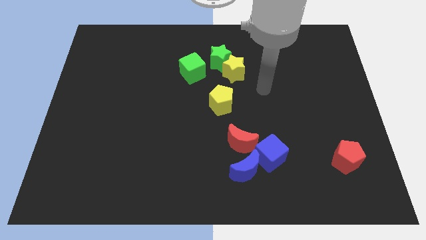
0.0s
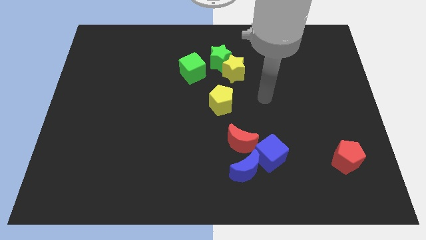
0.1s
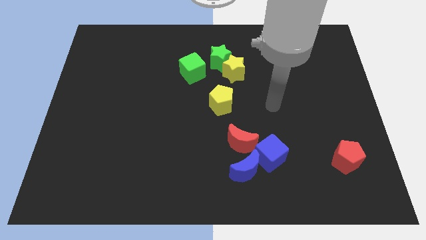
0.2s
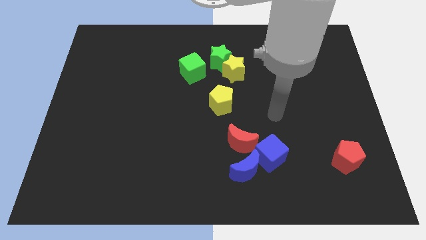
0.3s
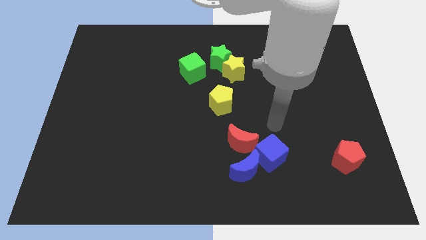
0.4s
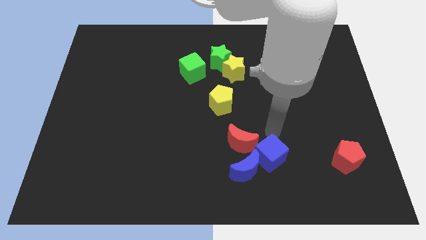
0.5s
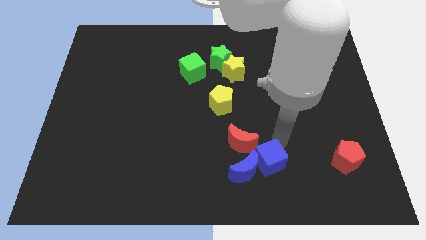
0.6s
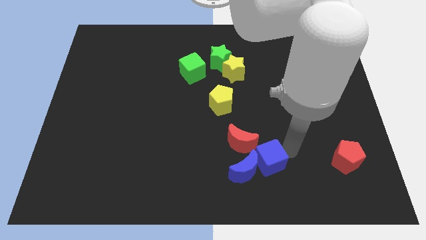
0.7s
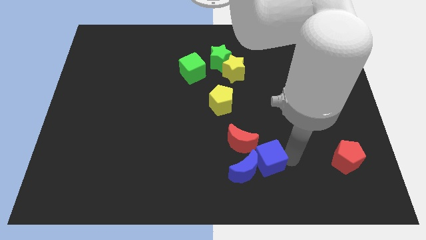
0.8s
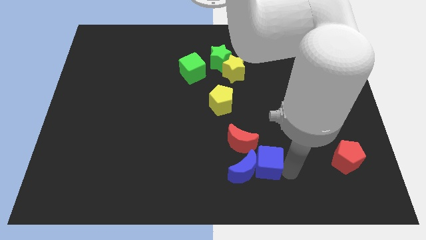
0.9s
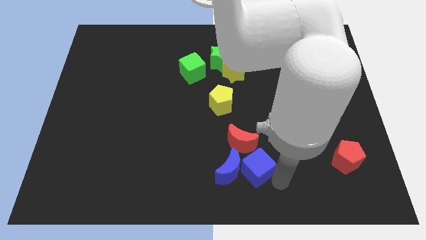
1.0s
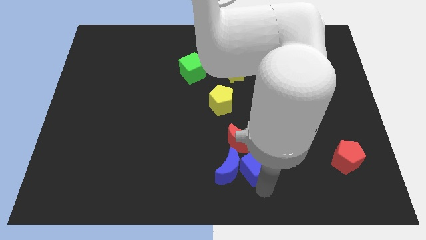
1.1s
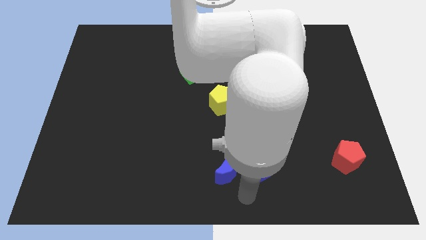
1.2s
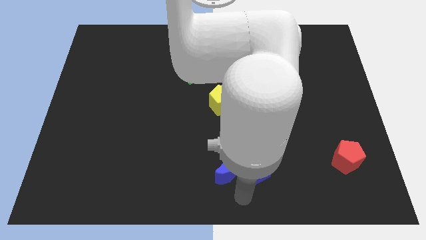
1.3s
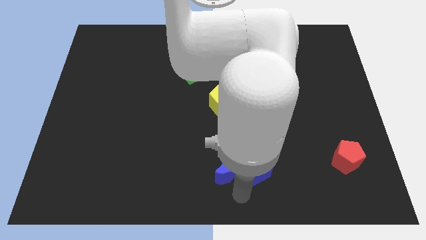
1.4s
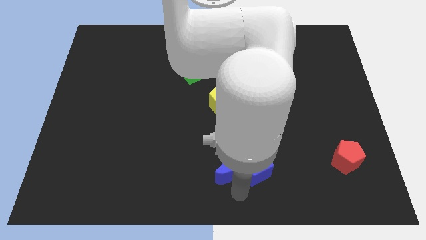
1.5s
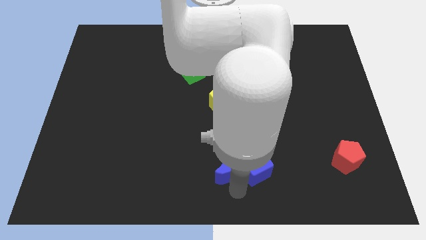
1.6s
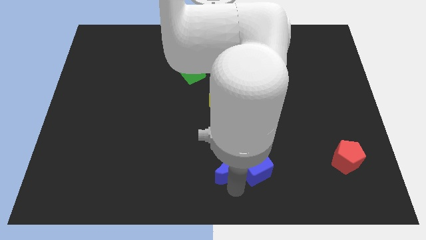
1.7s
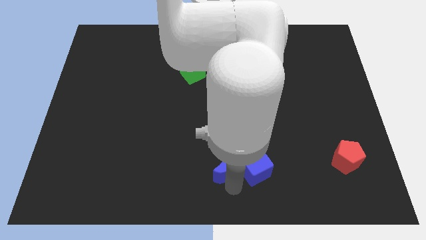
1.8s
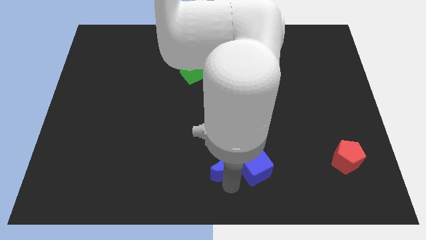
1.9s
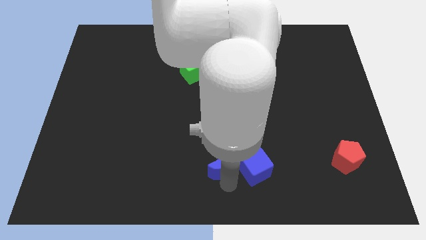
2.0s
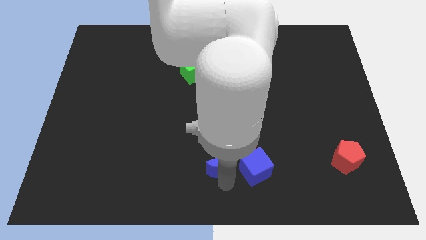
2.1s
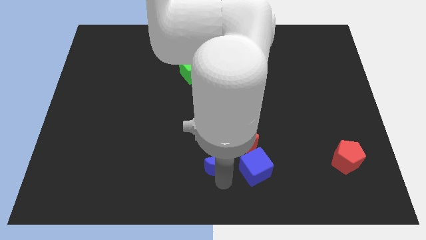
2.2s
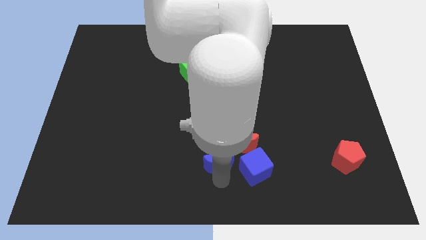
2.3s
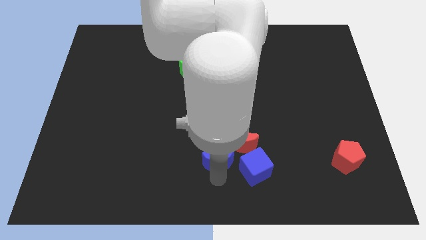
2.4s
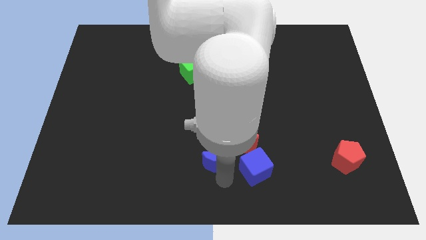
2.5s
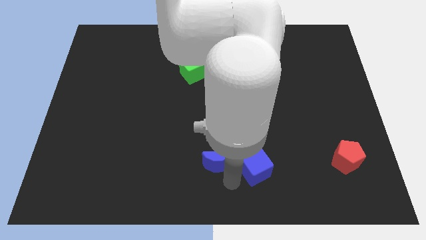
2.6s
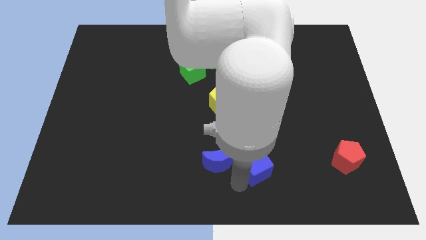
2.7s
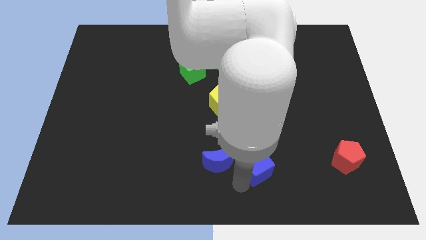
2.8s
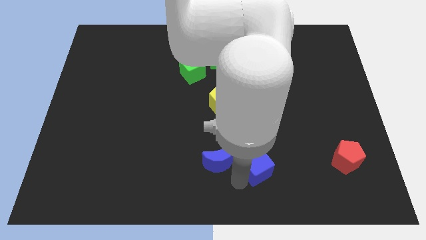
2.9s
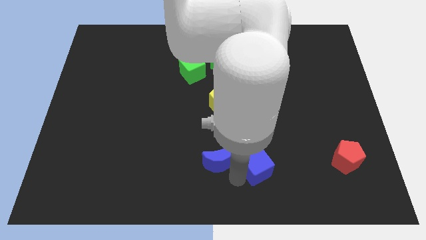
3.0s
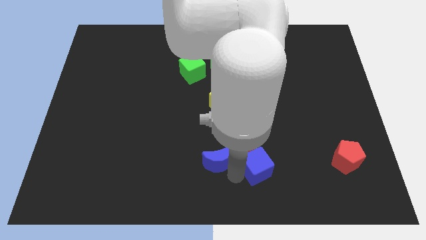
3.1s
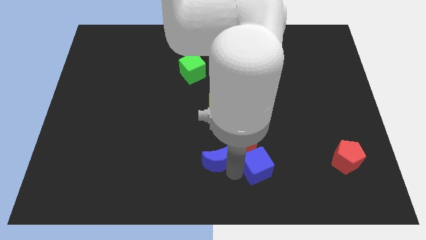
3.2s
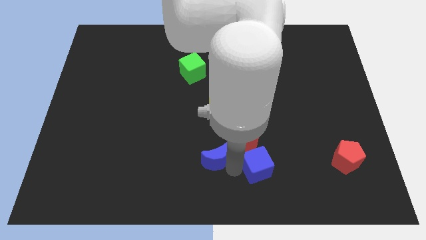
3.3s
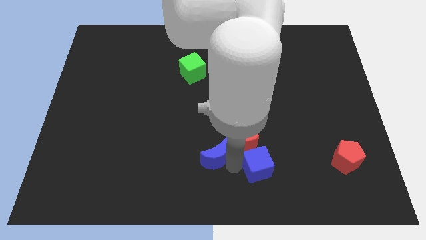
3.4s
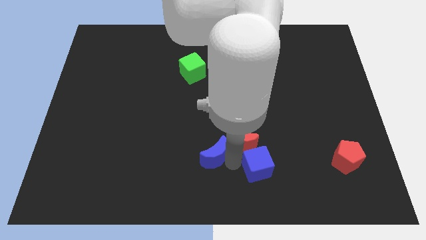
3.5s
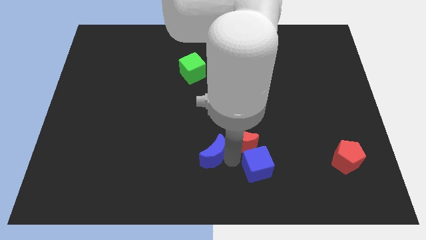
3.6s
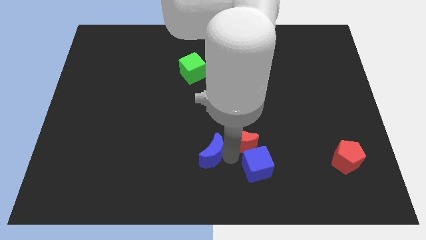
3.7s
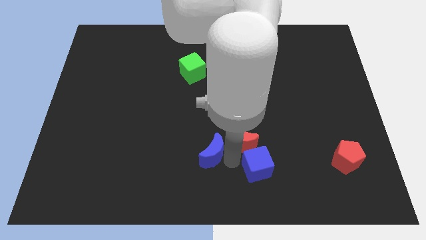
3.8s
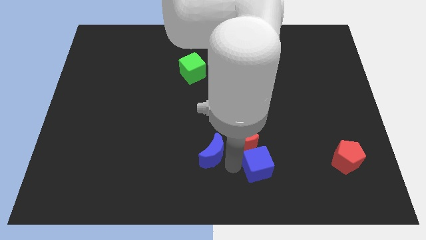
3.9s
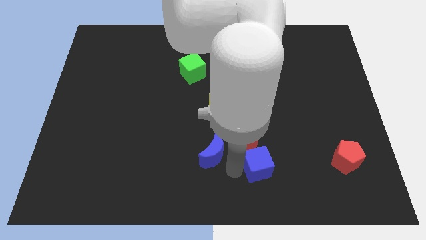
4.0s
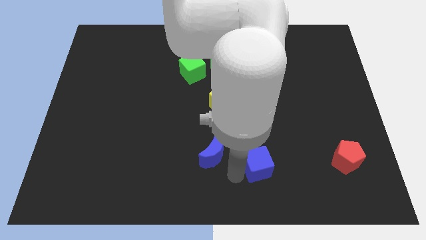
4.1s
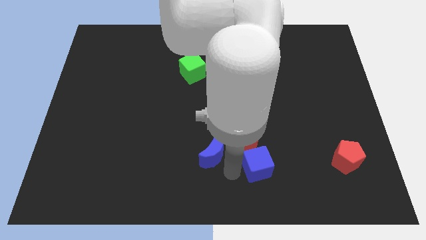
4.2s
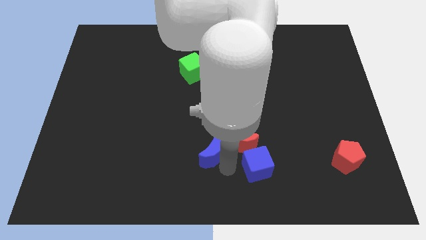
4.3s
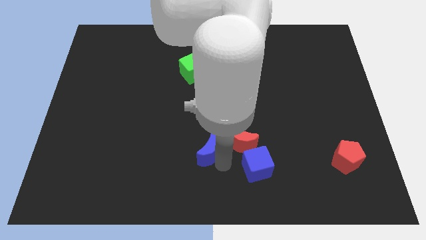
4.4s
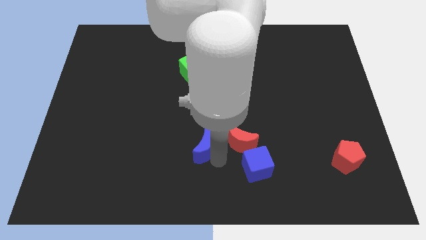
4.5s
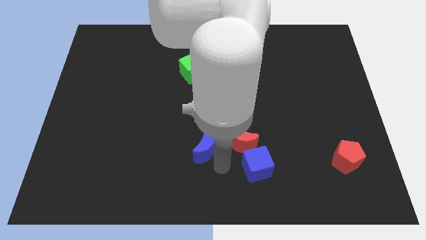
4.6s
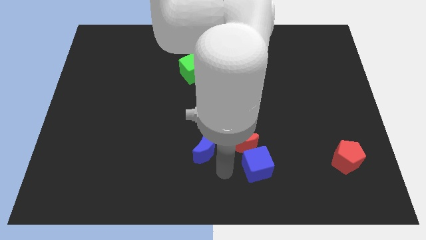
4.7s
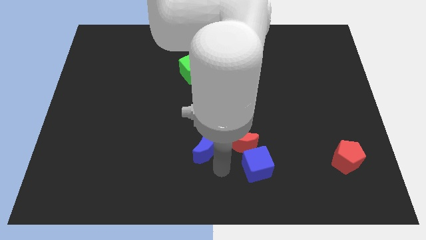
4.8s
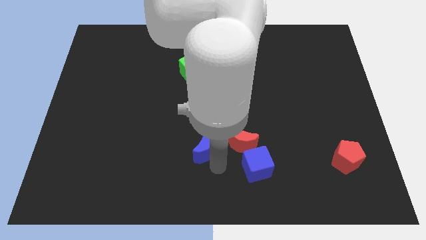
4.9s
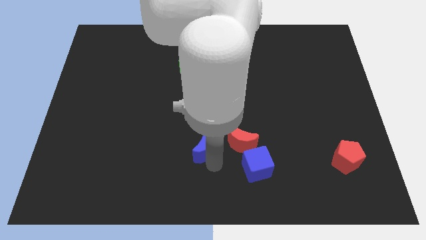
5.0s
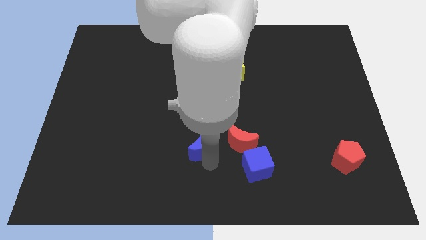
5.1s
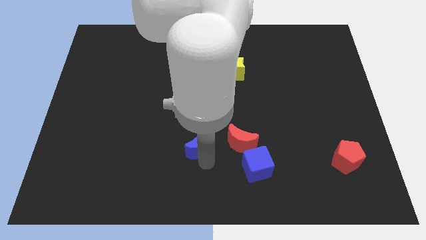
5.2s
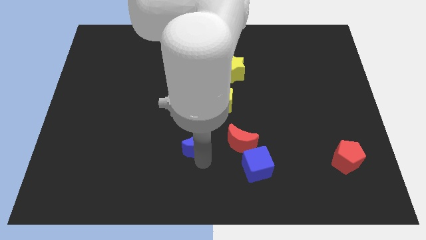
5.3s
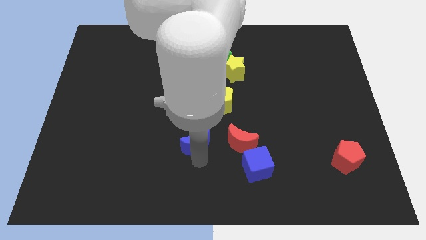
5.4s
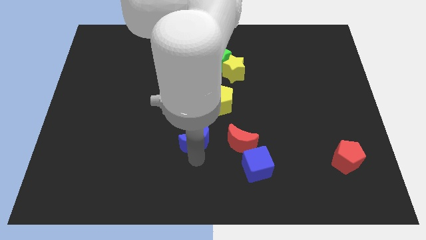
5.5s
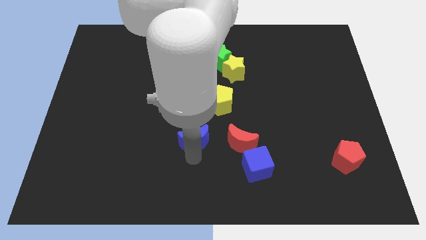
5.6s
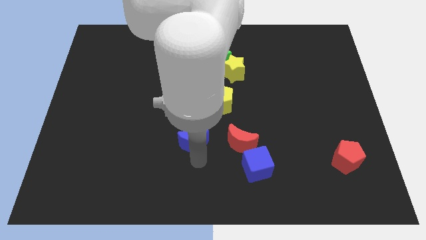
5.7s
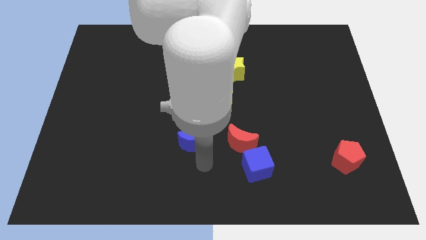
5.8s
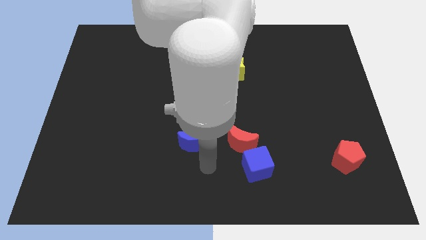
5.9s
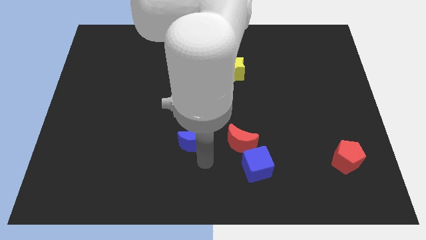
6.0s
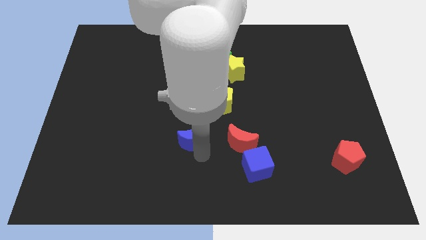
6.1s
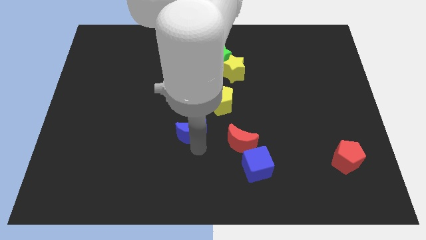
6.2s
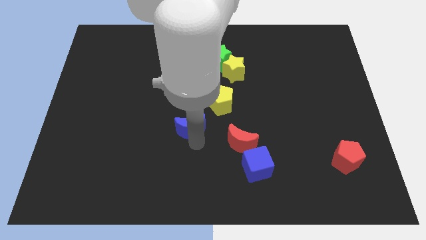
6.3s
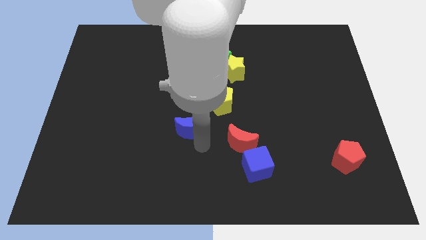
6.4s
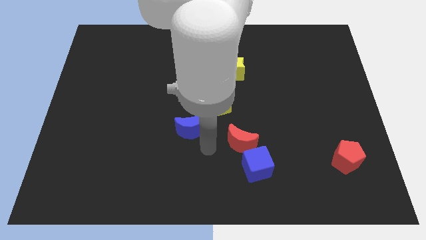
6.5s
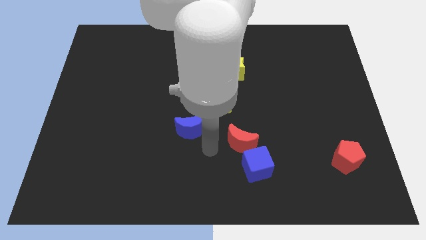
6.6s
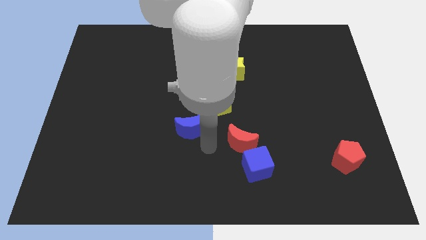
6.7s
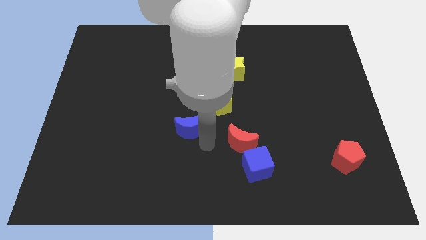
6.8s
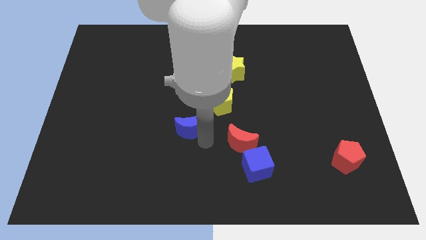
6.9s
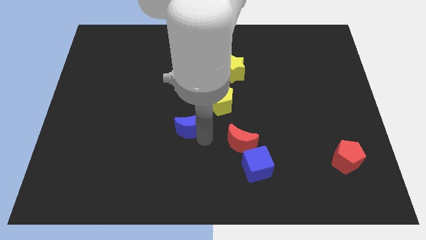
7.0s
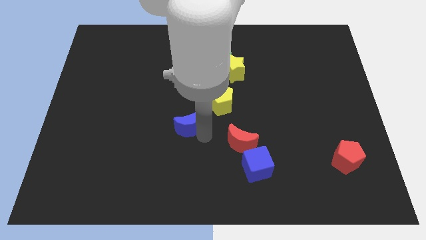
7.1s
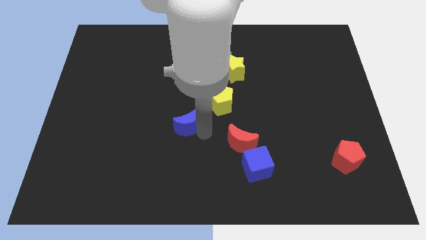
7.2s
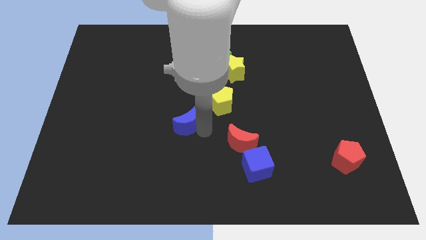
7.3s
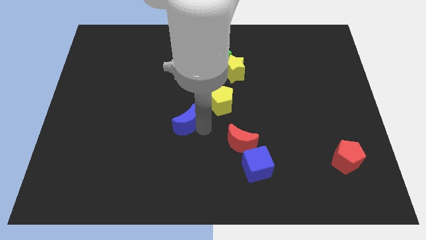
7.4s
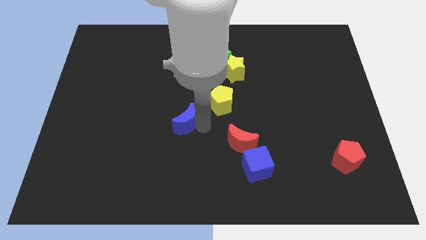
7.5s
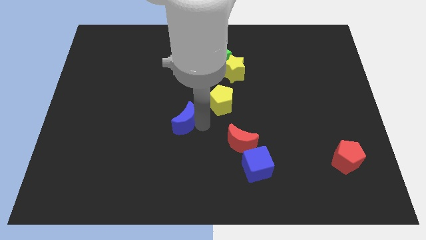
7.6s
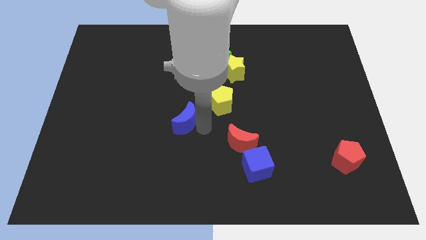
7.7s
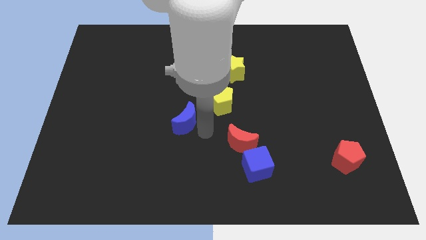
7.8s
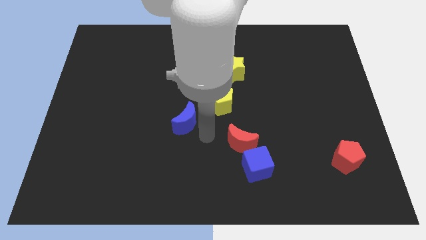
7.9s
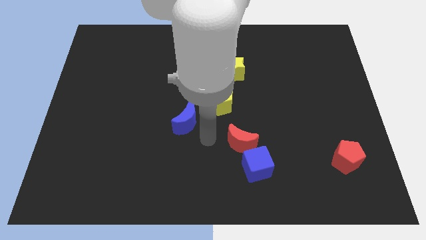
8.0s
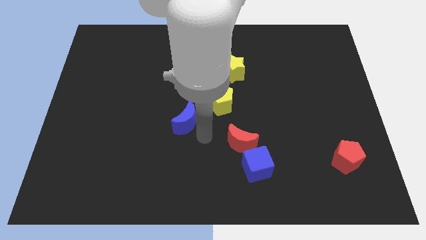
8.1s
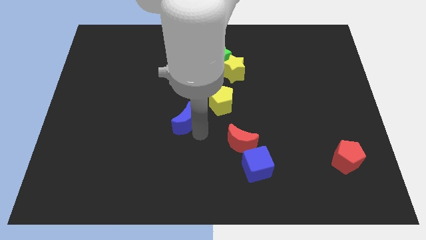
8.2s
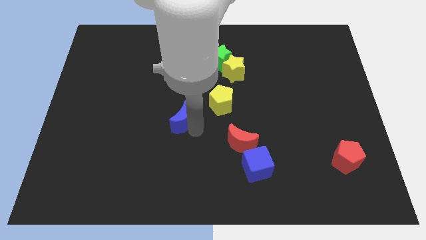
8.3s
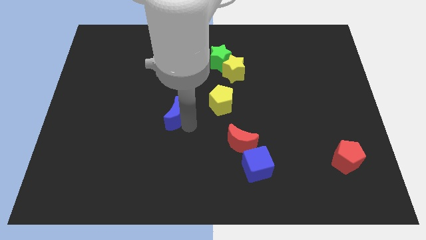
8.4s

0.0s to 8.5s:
push the blue moon up and to the left
